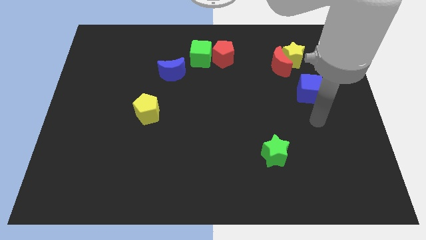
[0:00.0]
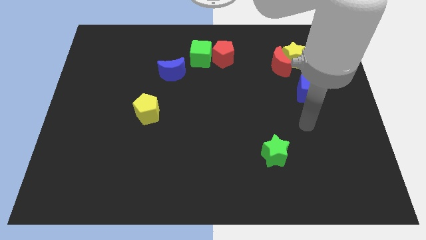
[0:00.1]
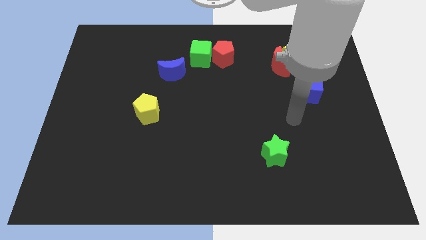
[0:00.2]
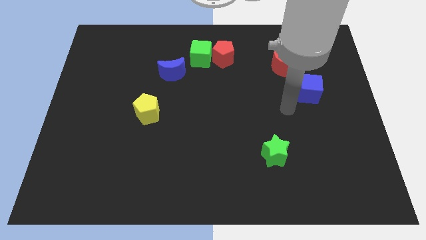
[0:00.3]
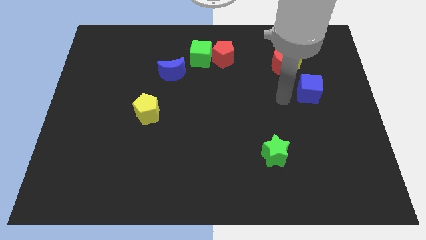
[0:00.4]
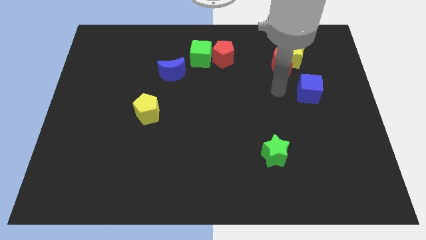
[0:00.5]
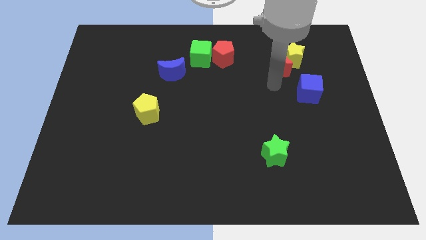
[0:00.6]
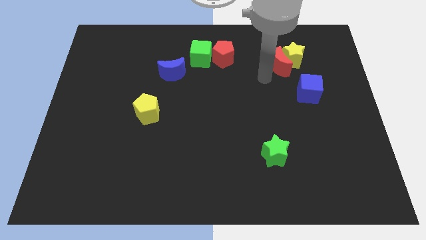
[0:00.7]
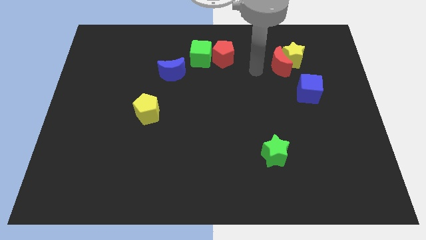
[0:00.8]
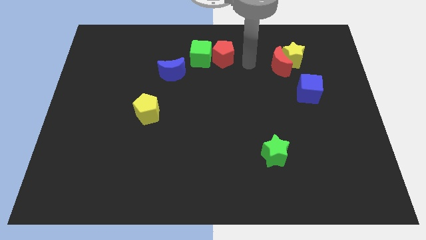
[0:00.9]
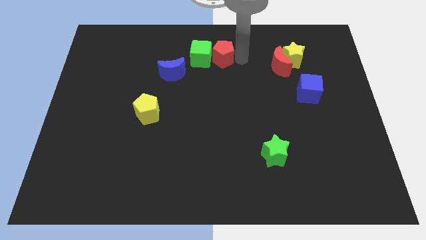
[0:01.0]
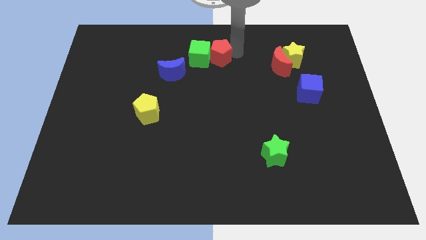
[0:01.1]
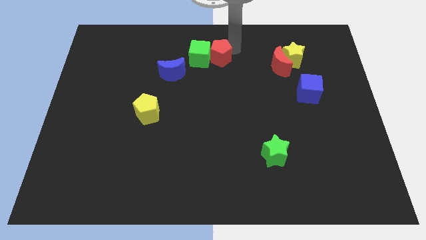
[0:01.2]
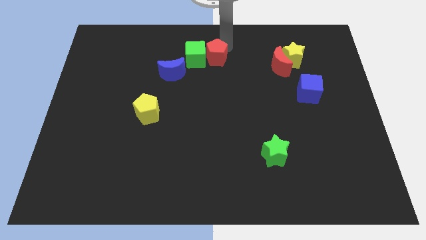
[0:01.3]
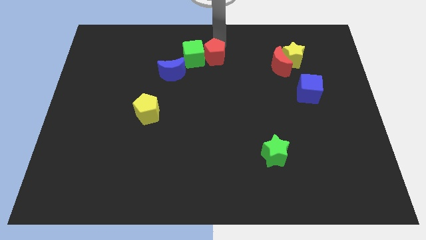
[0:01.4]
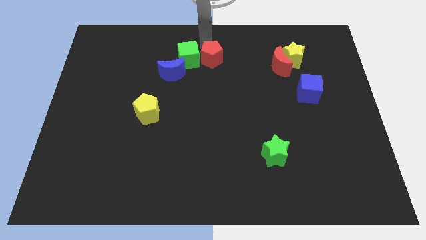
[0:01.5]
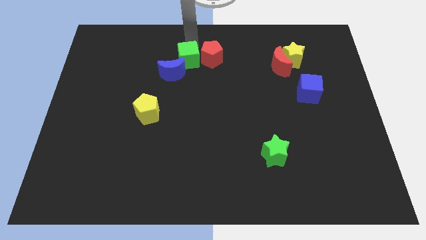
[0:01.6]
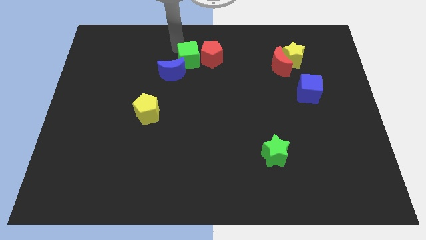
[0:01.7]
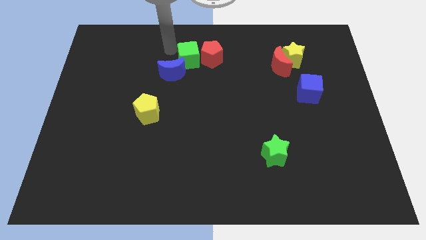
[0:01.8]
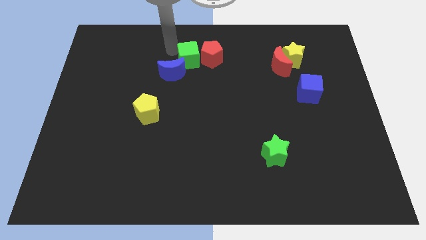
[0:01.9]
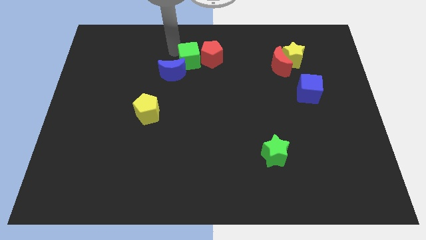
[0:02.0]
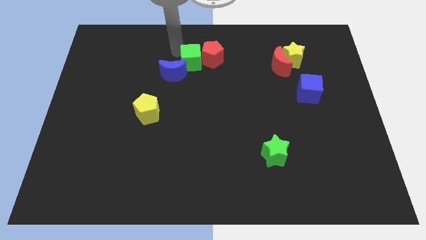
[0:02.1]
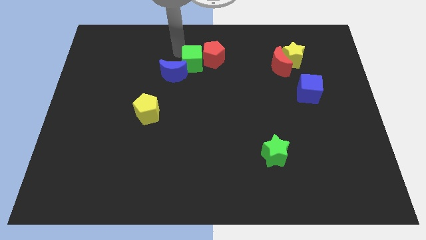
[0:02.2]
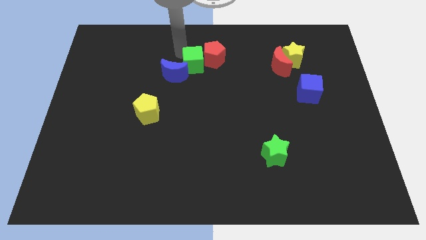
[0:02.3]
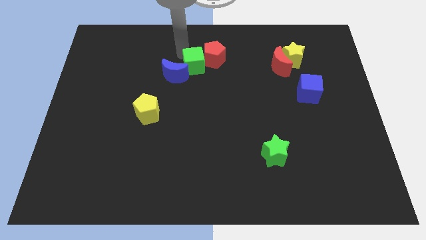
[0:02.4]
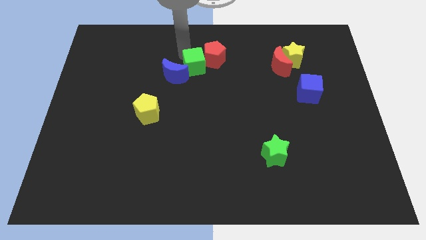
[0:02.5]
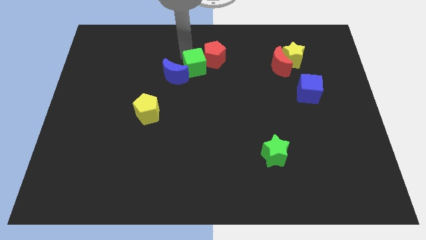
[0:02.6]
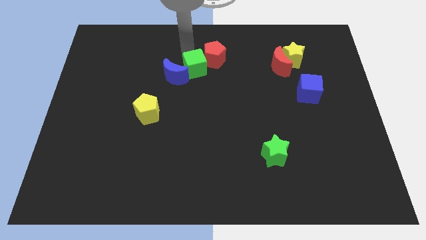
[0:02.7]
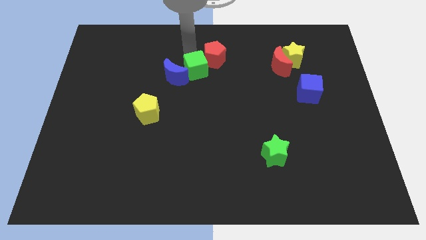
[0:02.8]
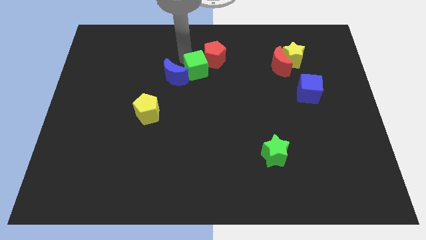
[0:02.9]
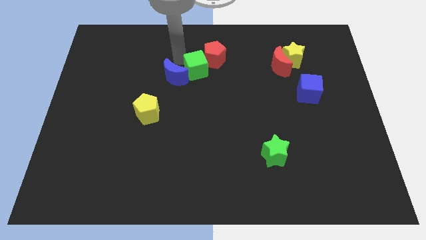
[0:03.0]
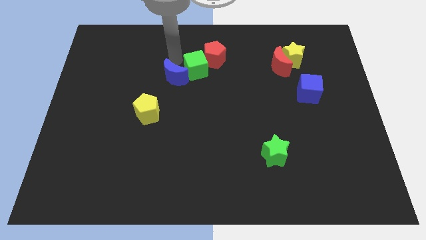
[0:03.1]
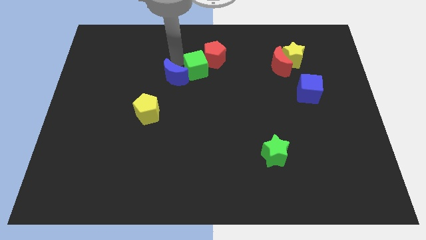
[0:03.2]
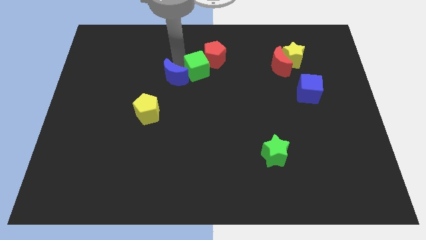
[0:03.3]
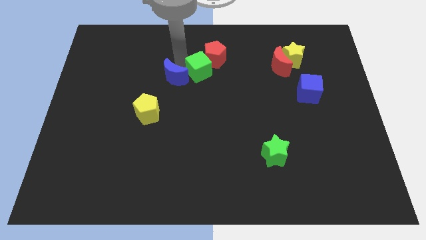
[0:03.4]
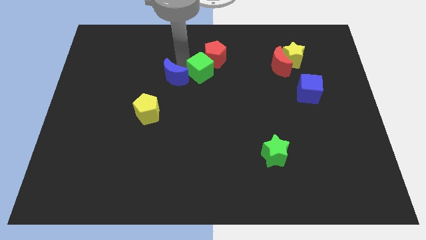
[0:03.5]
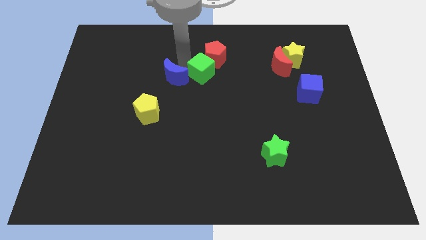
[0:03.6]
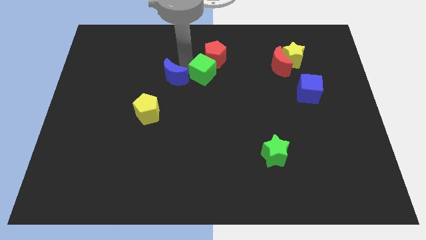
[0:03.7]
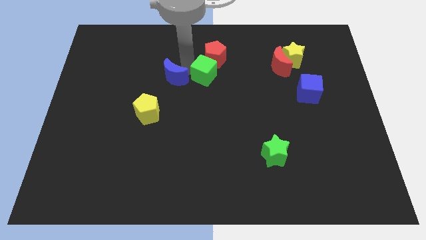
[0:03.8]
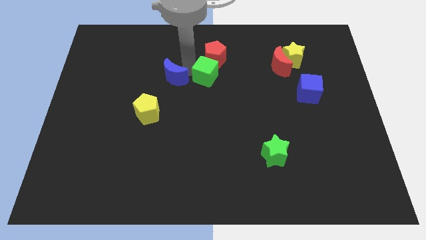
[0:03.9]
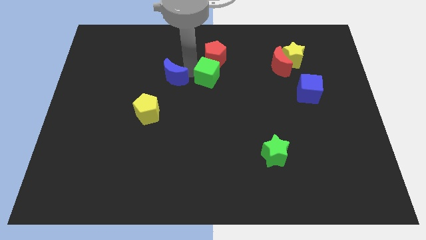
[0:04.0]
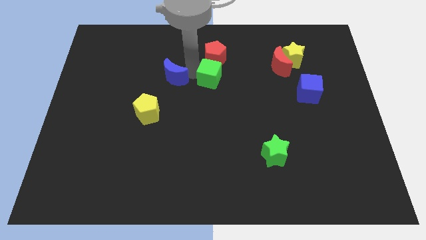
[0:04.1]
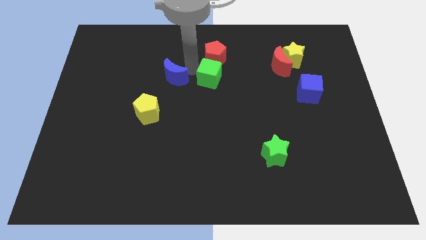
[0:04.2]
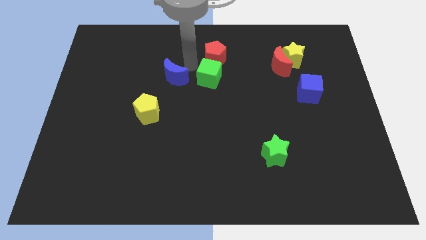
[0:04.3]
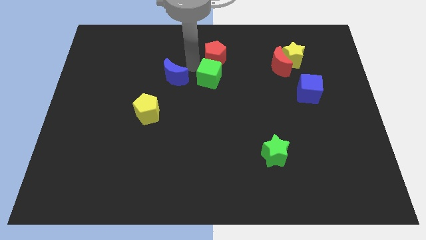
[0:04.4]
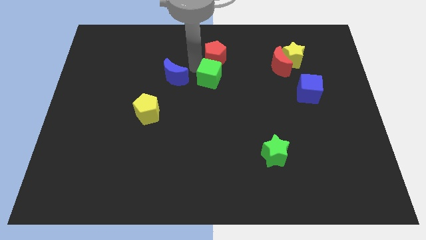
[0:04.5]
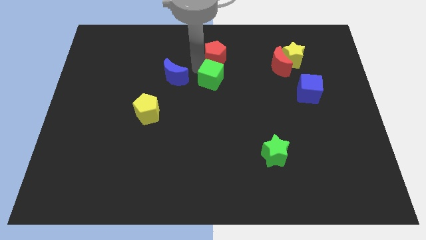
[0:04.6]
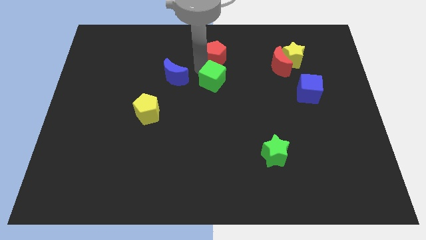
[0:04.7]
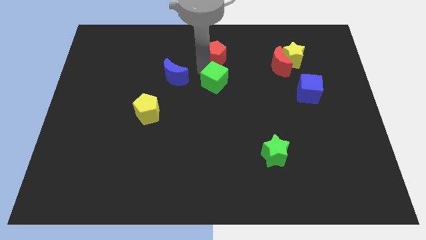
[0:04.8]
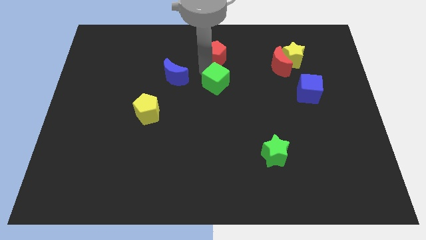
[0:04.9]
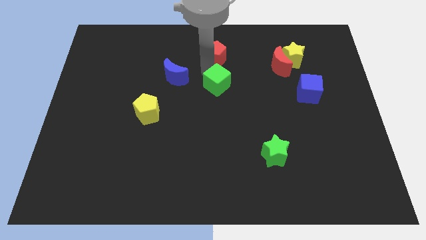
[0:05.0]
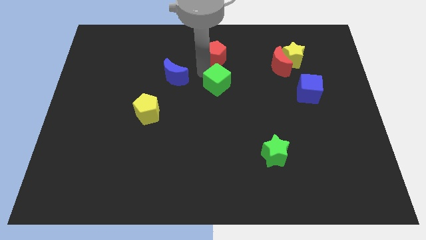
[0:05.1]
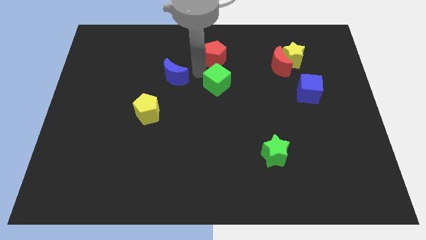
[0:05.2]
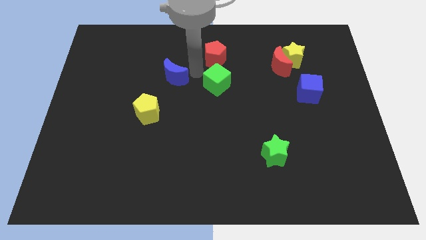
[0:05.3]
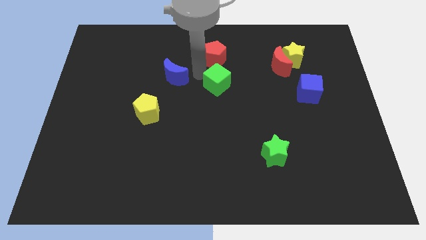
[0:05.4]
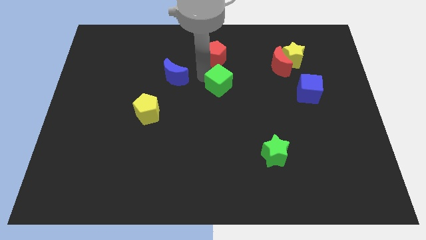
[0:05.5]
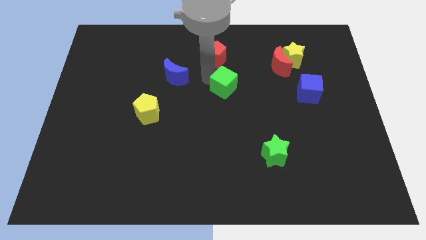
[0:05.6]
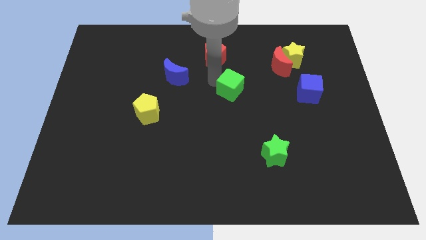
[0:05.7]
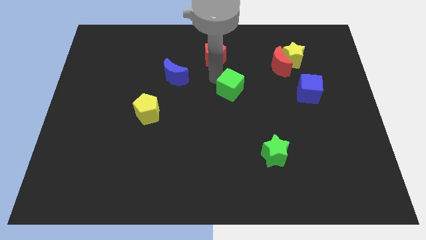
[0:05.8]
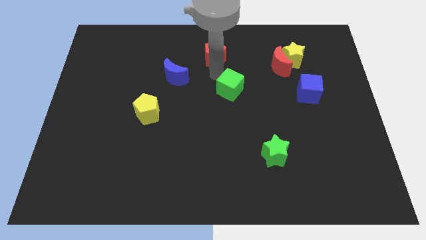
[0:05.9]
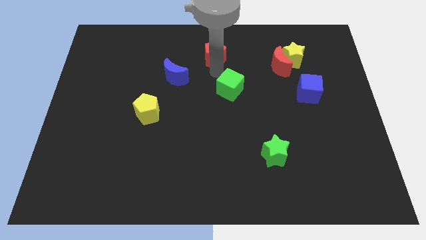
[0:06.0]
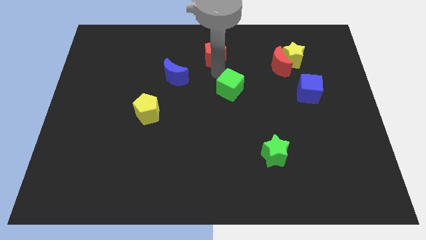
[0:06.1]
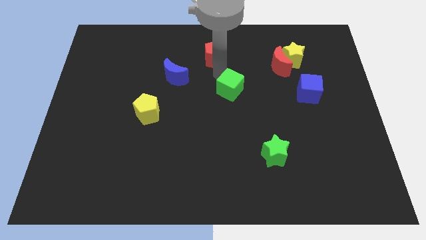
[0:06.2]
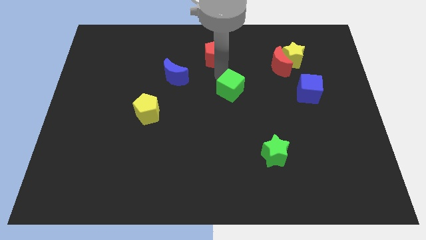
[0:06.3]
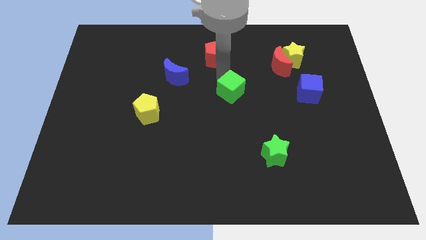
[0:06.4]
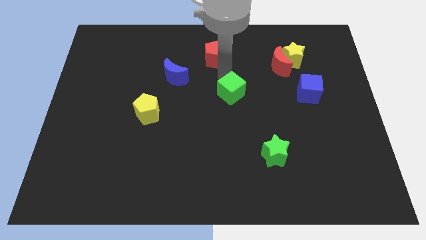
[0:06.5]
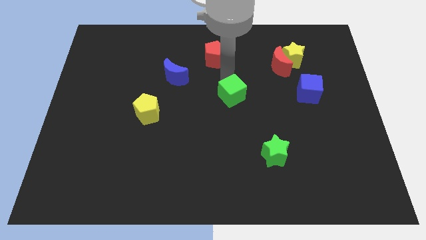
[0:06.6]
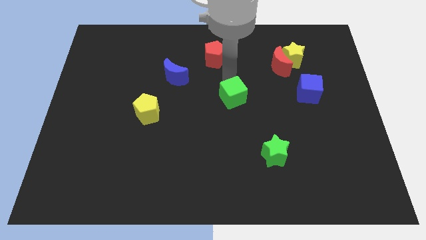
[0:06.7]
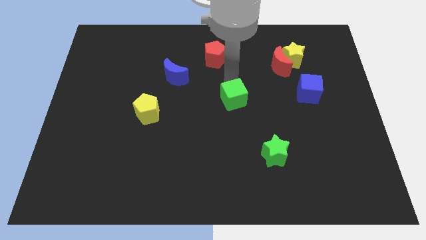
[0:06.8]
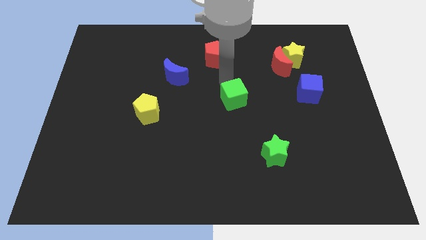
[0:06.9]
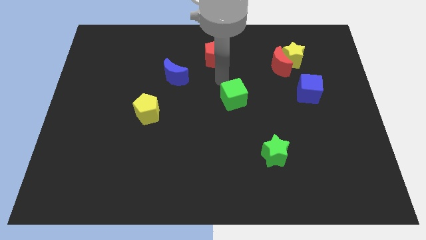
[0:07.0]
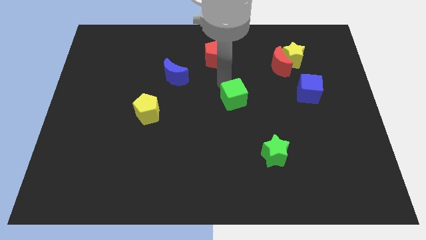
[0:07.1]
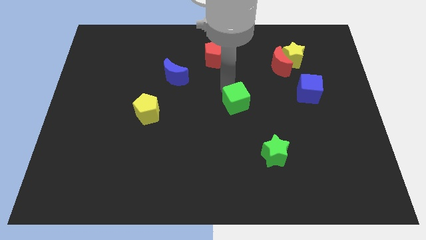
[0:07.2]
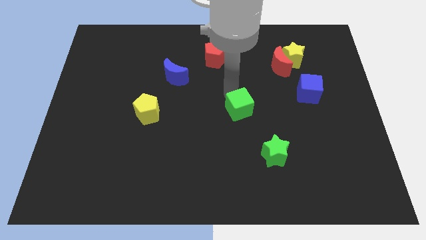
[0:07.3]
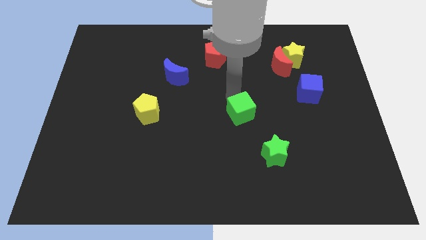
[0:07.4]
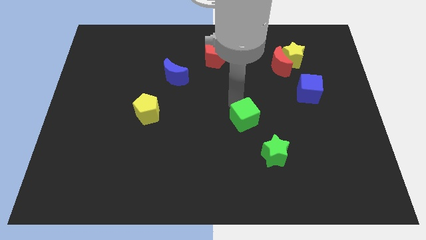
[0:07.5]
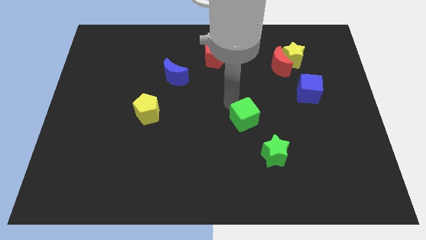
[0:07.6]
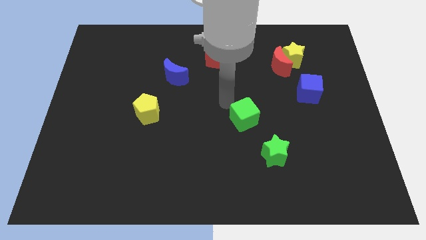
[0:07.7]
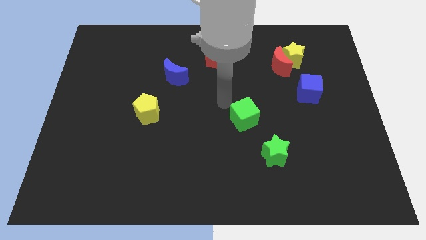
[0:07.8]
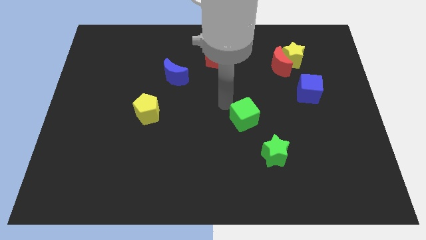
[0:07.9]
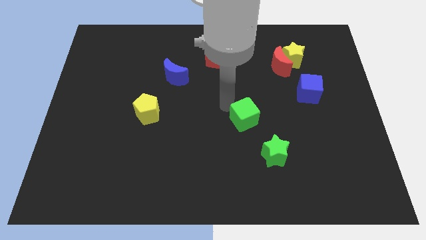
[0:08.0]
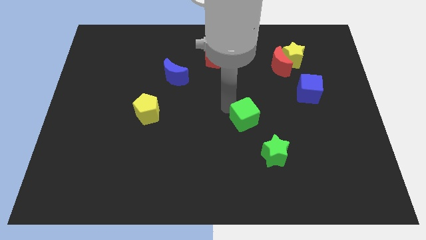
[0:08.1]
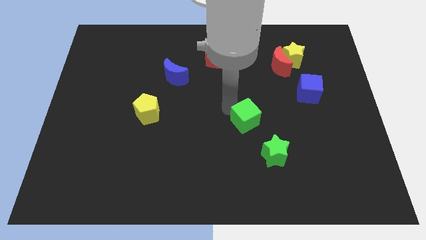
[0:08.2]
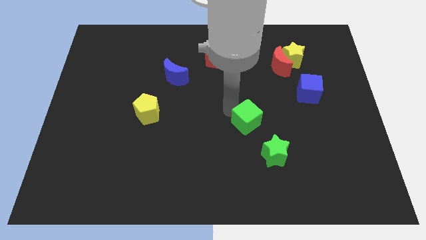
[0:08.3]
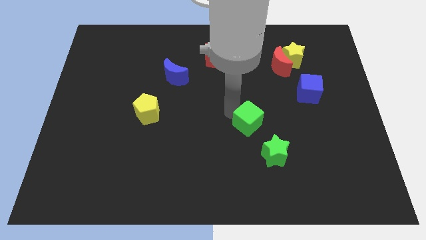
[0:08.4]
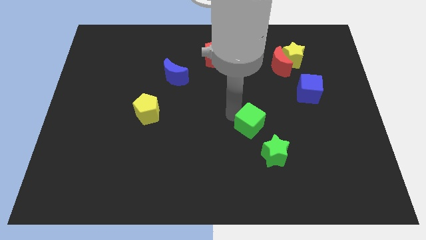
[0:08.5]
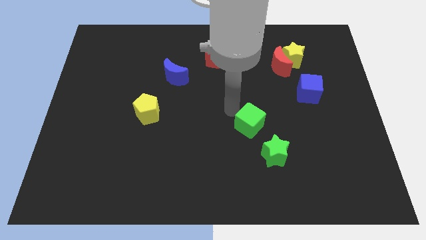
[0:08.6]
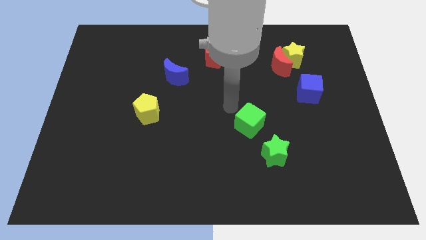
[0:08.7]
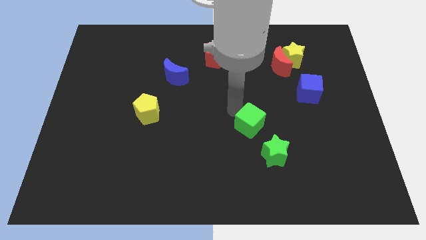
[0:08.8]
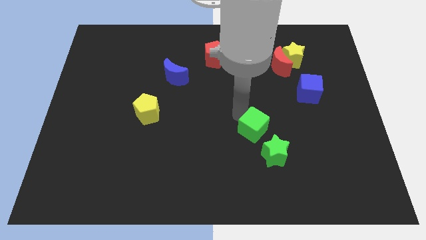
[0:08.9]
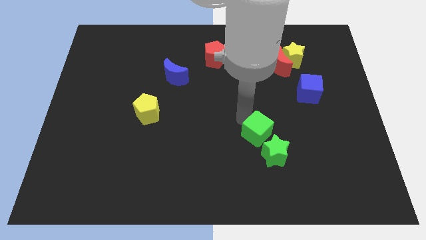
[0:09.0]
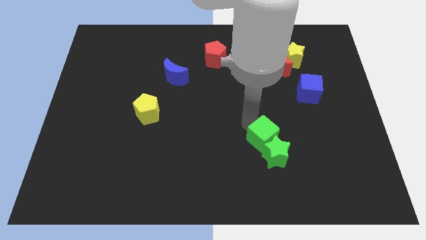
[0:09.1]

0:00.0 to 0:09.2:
slide the green cube towards the green star
